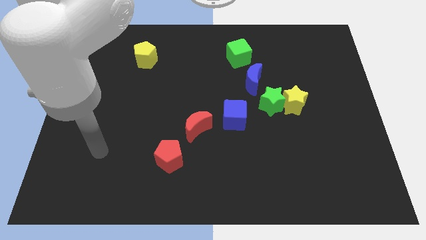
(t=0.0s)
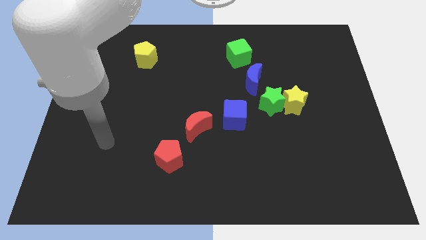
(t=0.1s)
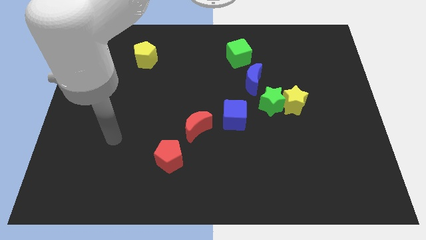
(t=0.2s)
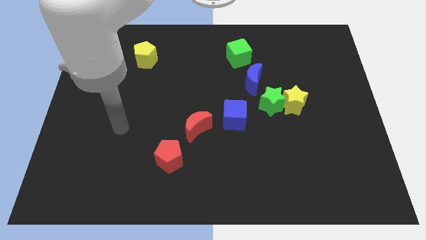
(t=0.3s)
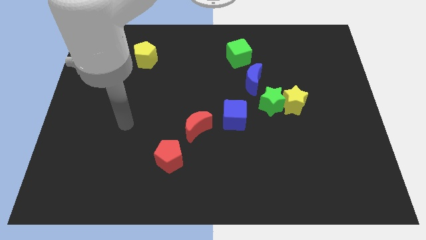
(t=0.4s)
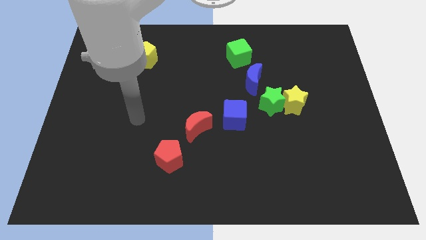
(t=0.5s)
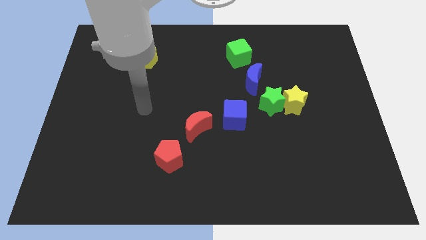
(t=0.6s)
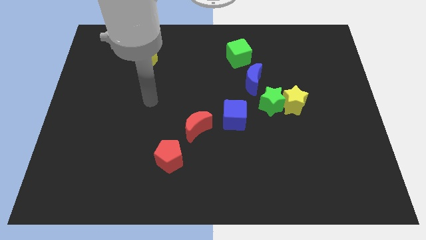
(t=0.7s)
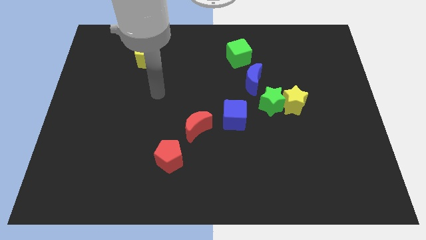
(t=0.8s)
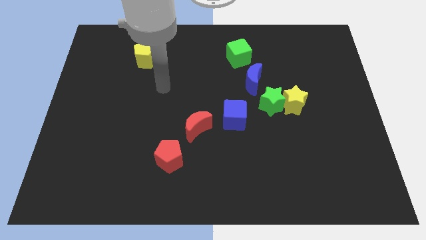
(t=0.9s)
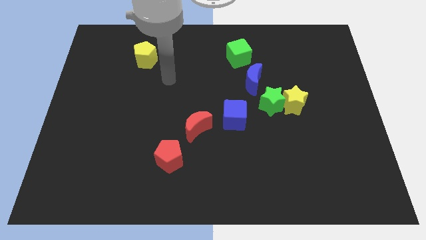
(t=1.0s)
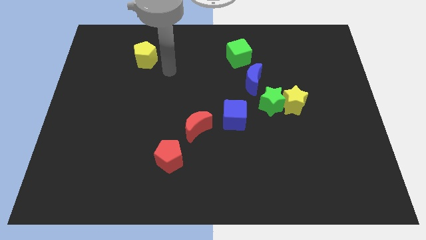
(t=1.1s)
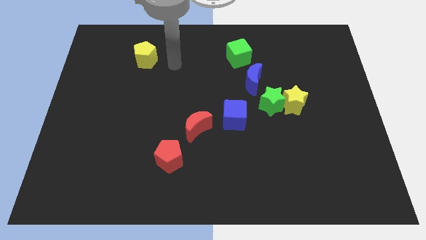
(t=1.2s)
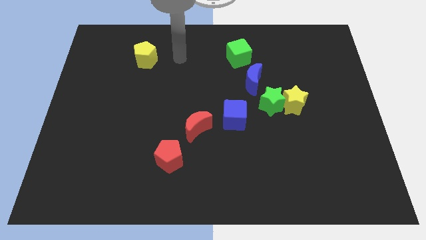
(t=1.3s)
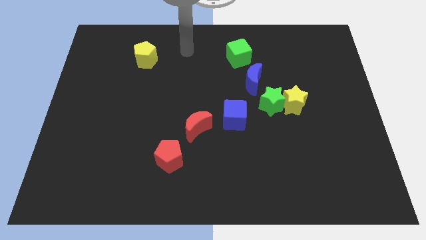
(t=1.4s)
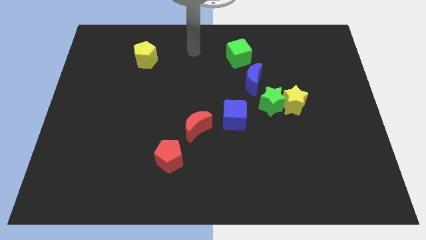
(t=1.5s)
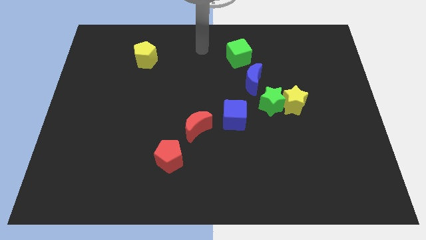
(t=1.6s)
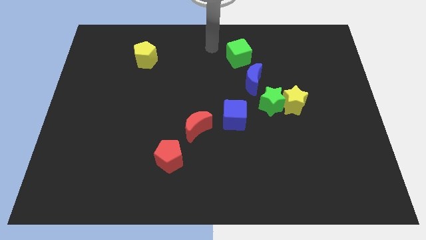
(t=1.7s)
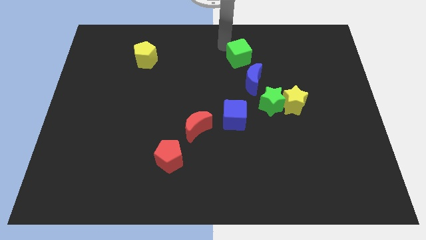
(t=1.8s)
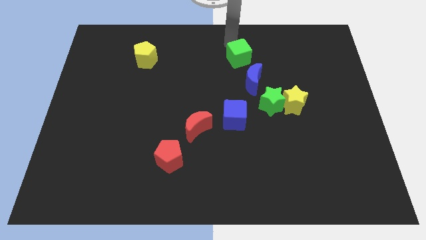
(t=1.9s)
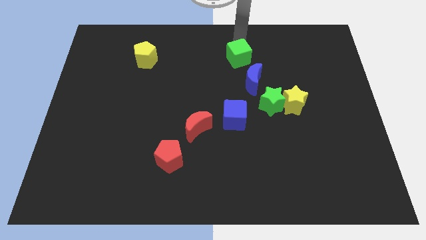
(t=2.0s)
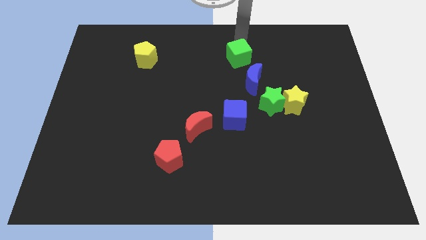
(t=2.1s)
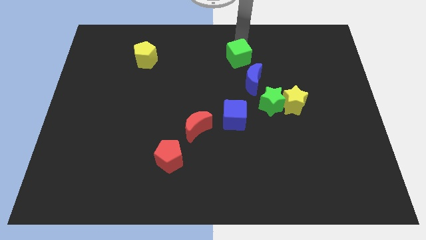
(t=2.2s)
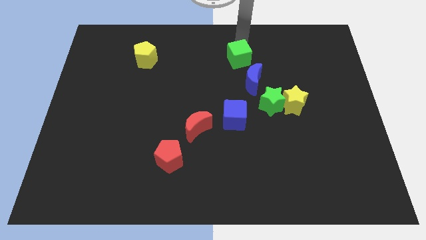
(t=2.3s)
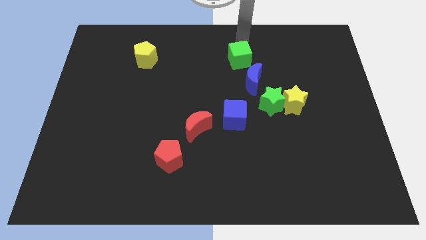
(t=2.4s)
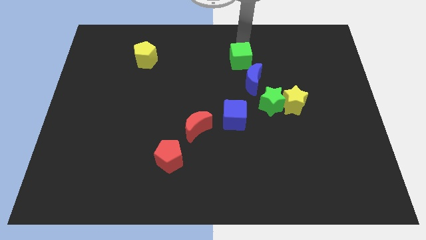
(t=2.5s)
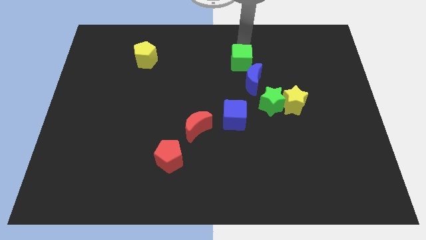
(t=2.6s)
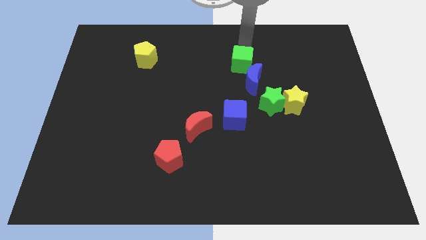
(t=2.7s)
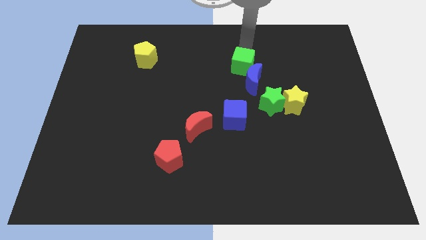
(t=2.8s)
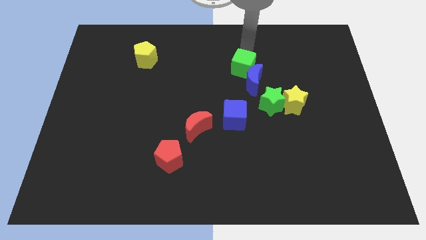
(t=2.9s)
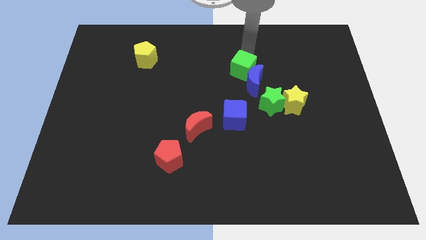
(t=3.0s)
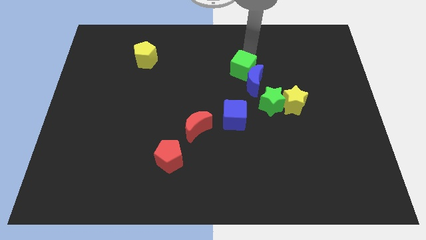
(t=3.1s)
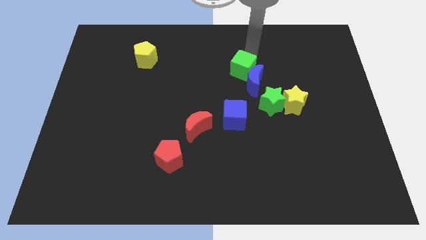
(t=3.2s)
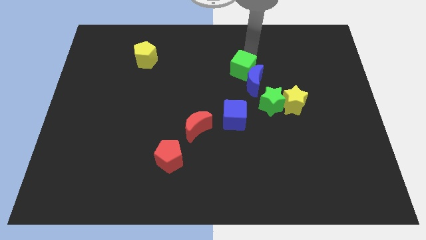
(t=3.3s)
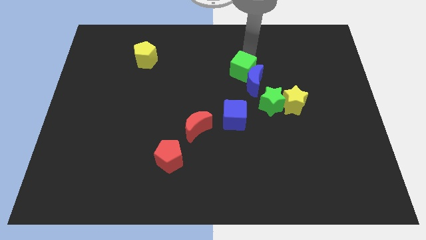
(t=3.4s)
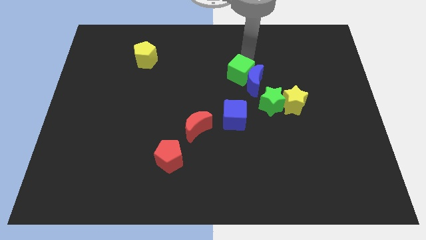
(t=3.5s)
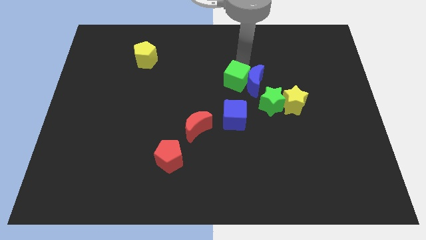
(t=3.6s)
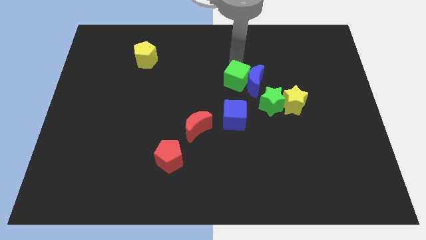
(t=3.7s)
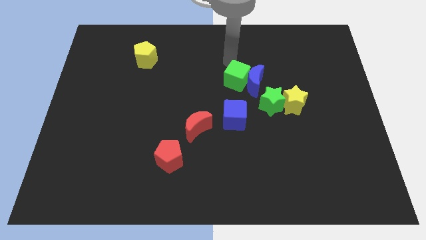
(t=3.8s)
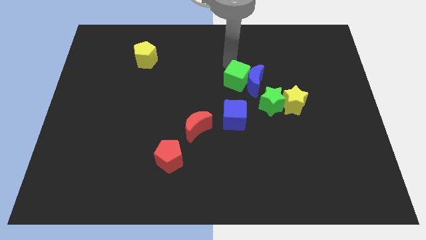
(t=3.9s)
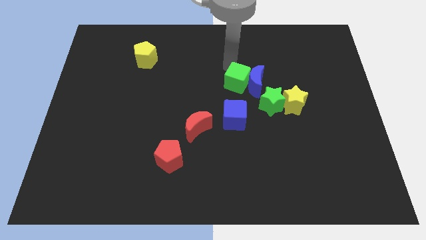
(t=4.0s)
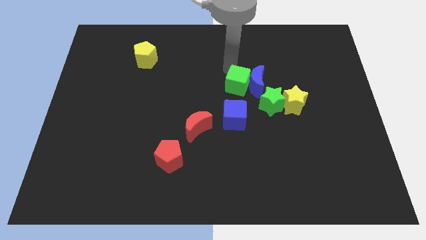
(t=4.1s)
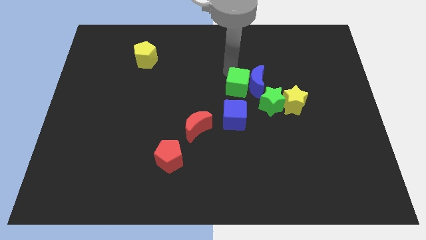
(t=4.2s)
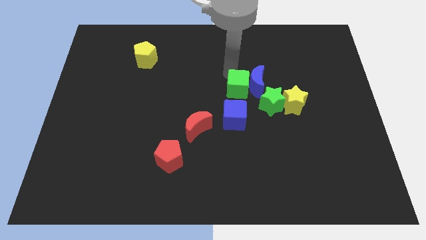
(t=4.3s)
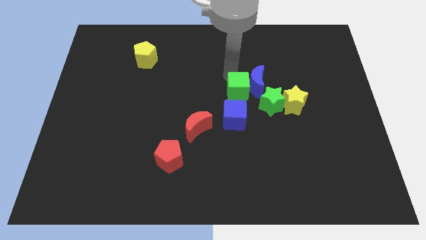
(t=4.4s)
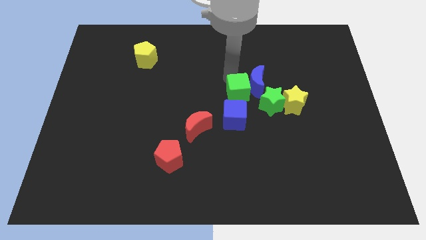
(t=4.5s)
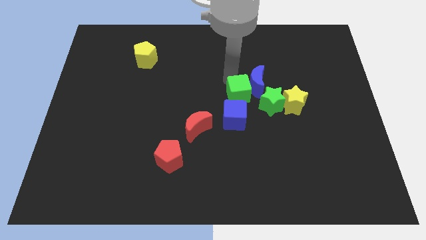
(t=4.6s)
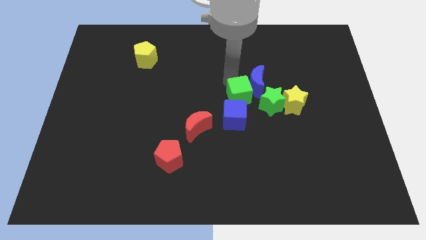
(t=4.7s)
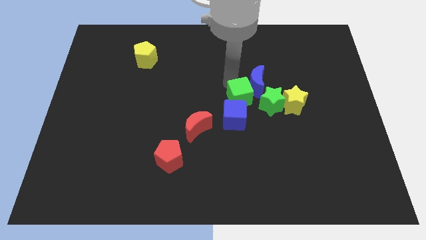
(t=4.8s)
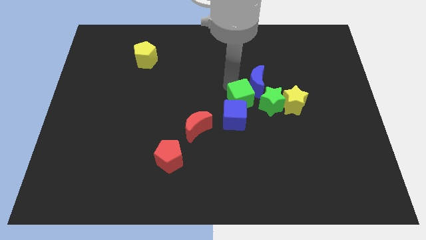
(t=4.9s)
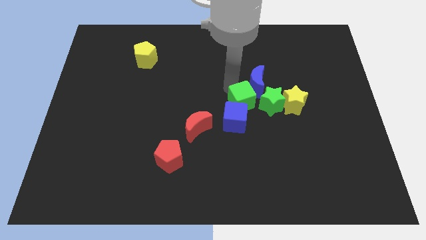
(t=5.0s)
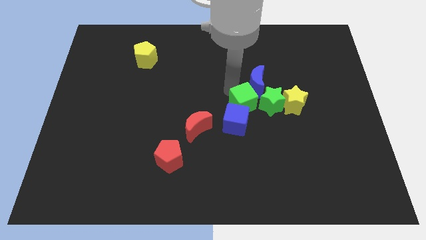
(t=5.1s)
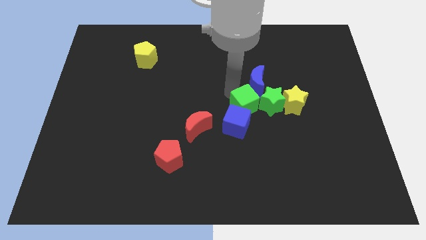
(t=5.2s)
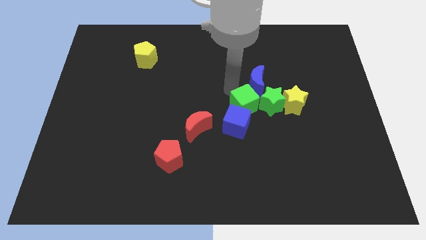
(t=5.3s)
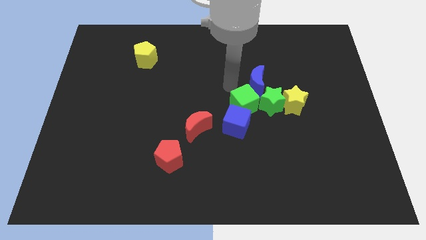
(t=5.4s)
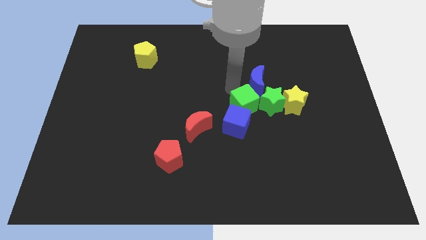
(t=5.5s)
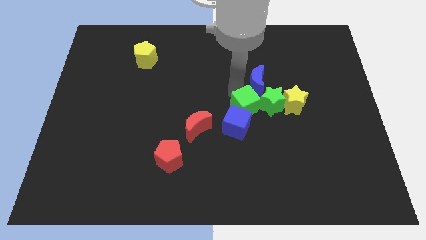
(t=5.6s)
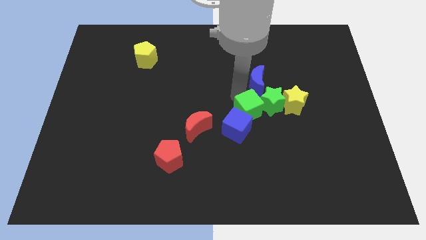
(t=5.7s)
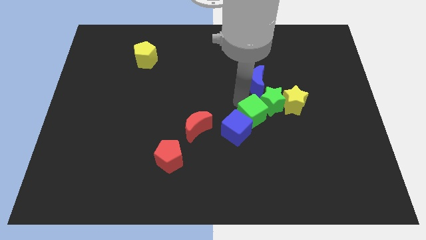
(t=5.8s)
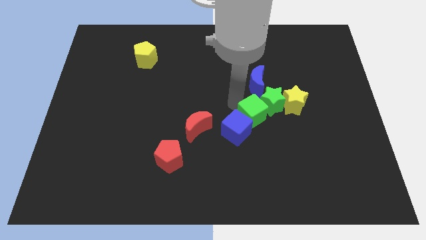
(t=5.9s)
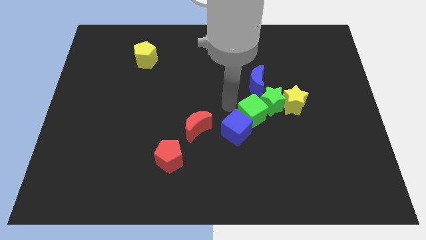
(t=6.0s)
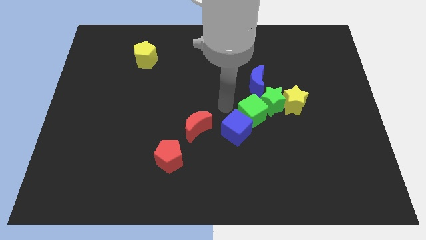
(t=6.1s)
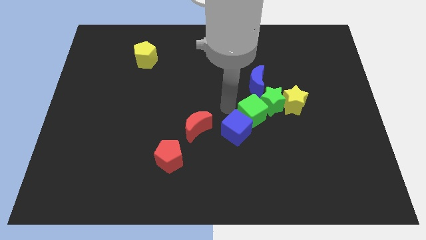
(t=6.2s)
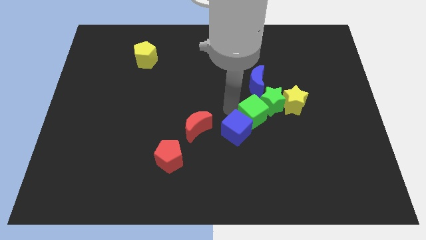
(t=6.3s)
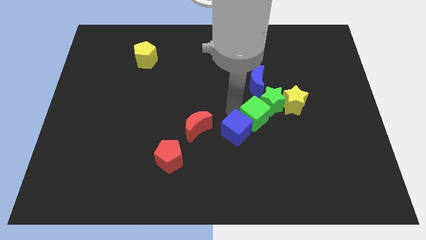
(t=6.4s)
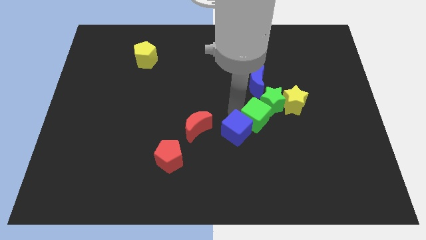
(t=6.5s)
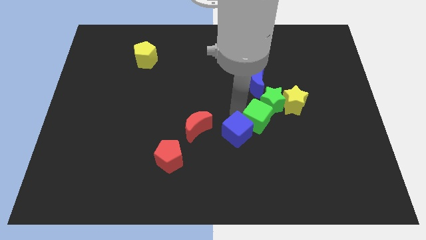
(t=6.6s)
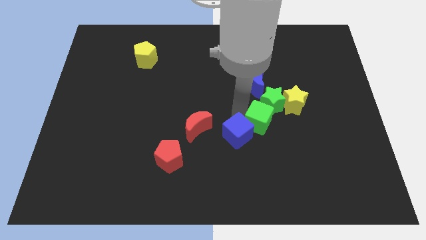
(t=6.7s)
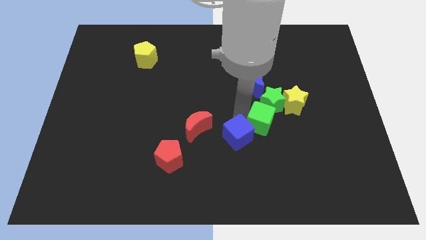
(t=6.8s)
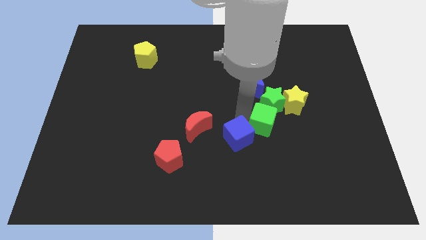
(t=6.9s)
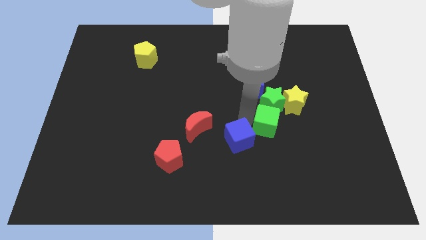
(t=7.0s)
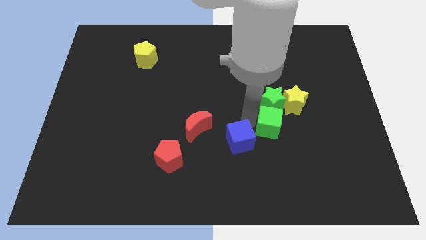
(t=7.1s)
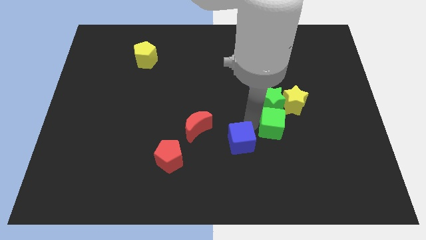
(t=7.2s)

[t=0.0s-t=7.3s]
move the green cube to the bottom right of the green star
